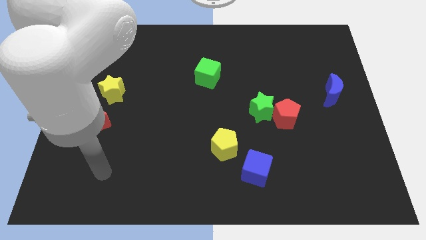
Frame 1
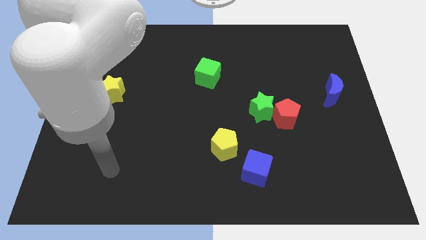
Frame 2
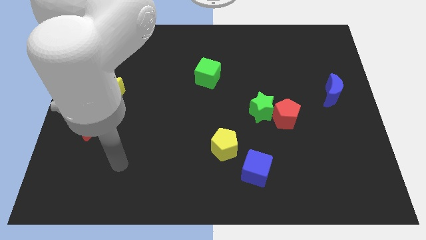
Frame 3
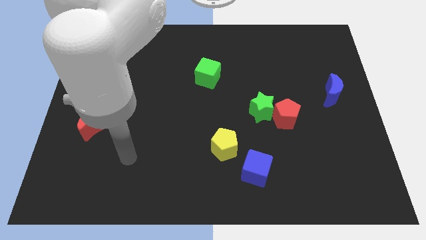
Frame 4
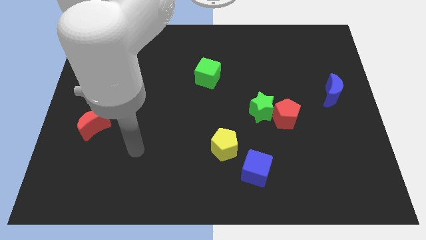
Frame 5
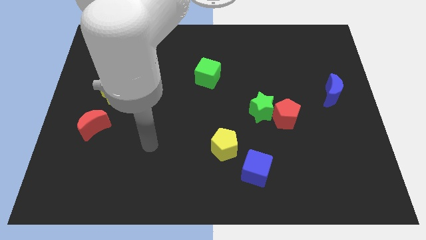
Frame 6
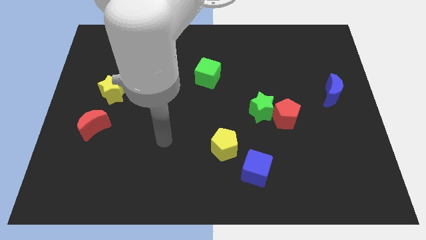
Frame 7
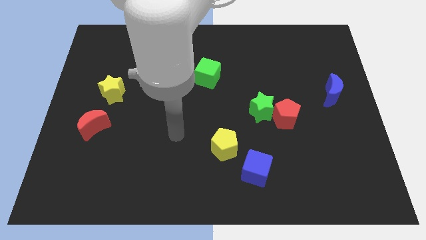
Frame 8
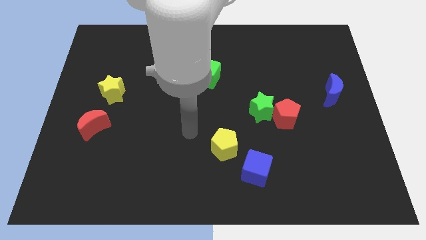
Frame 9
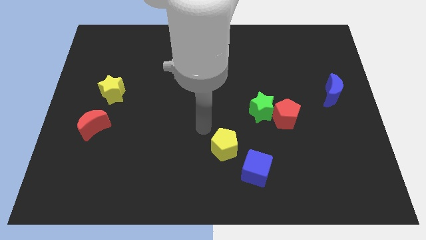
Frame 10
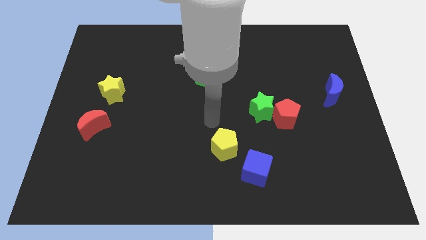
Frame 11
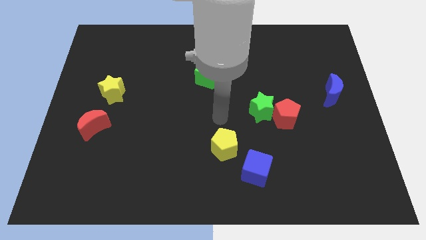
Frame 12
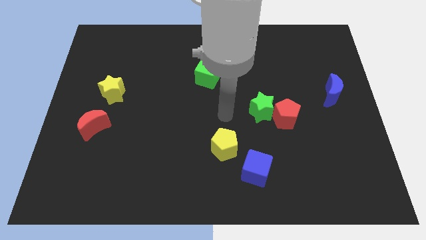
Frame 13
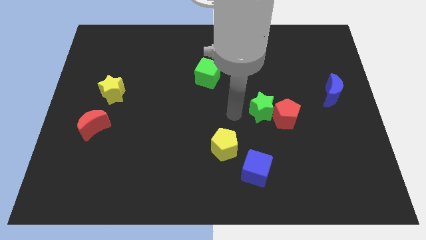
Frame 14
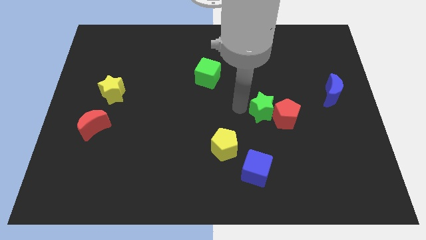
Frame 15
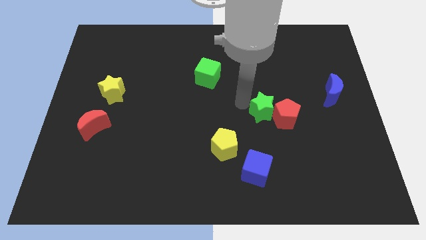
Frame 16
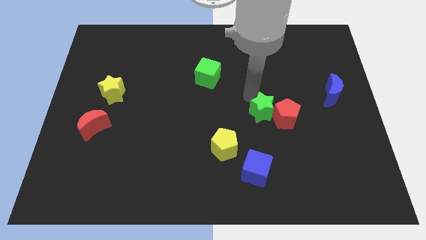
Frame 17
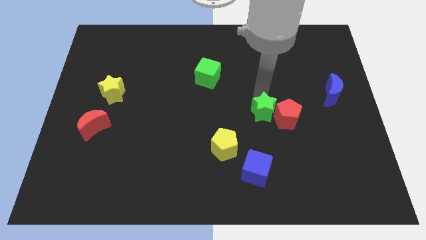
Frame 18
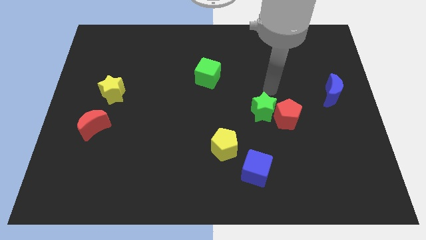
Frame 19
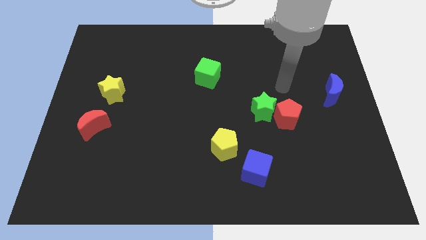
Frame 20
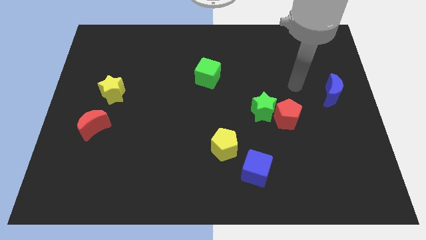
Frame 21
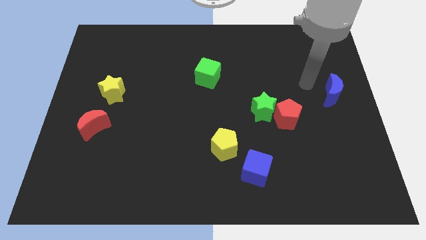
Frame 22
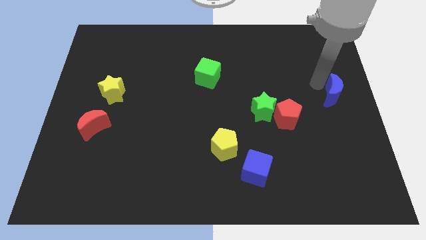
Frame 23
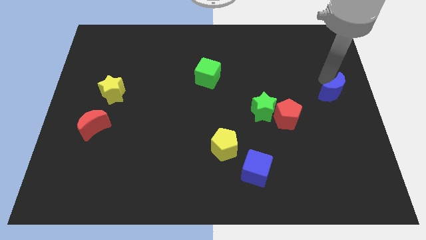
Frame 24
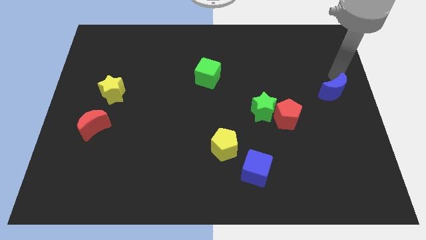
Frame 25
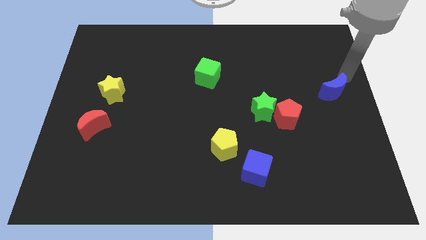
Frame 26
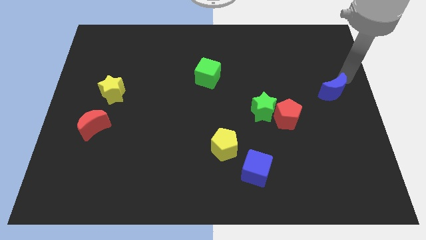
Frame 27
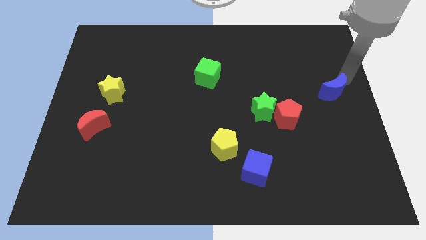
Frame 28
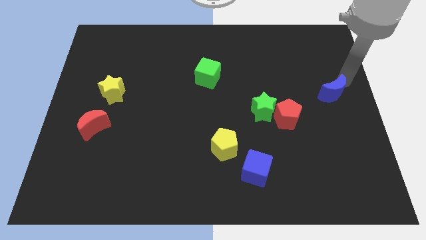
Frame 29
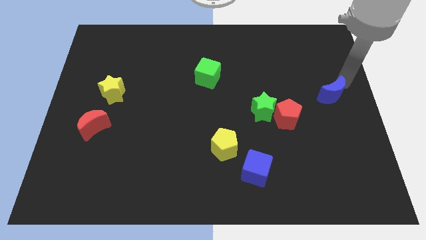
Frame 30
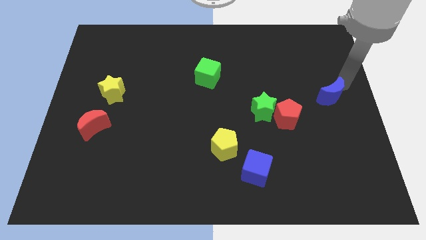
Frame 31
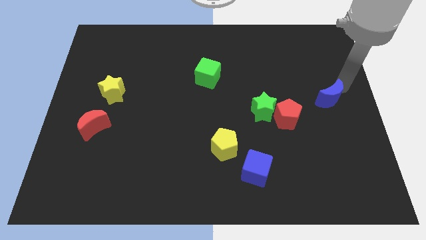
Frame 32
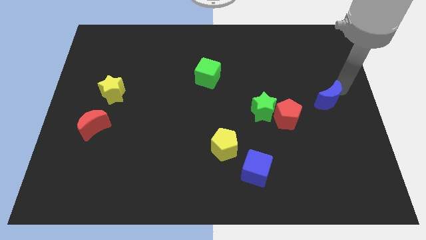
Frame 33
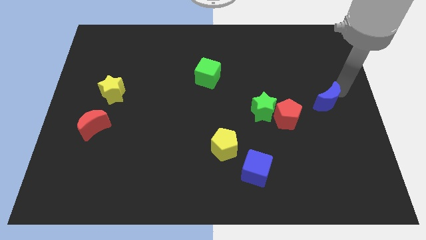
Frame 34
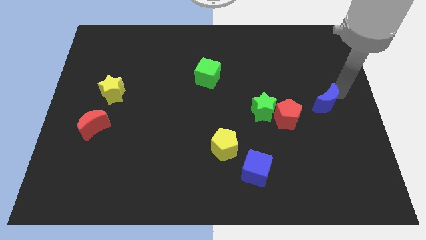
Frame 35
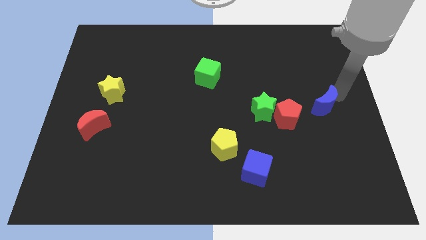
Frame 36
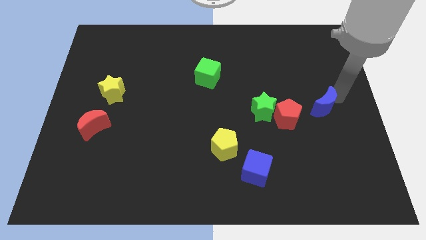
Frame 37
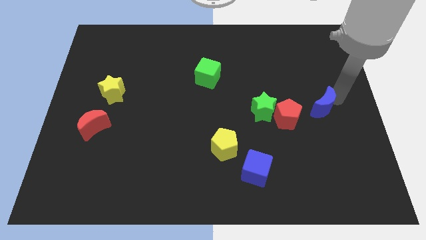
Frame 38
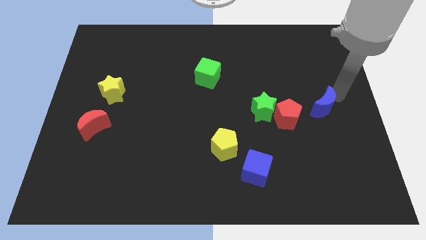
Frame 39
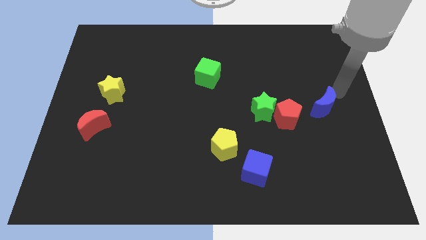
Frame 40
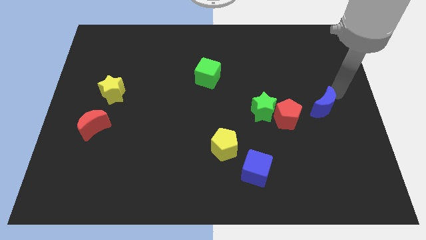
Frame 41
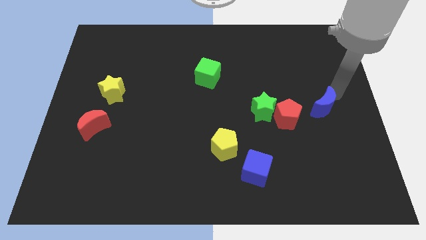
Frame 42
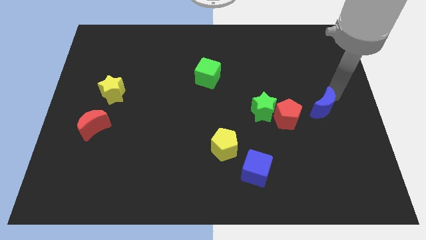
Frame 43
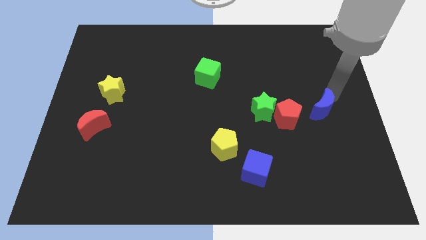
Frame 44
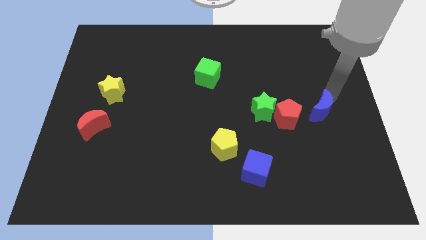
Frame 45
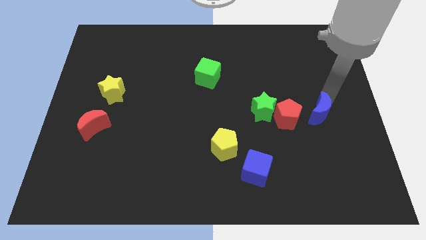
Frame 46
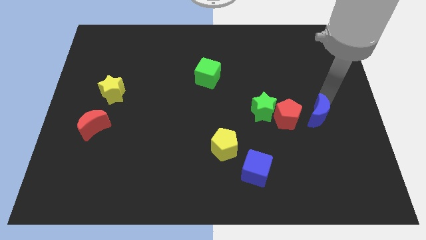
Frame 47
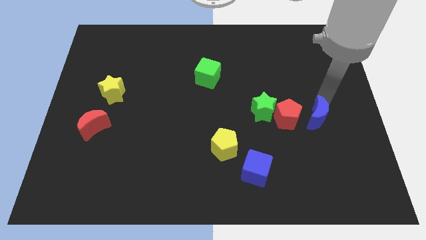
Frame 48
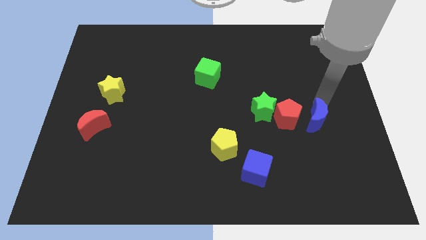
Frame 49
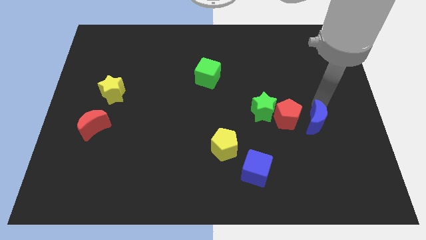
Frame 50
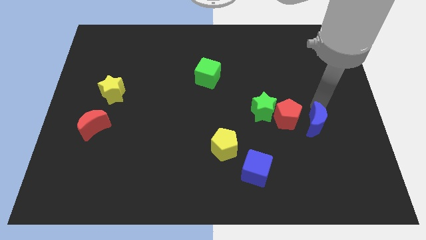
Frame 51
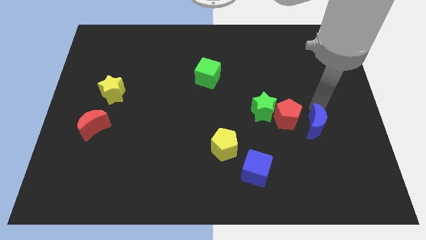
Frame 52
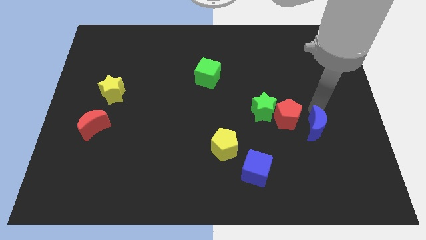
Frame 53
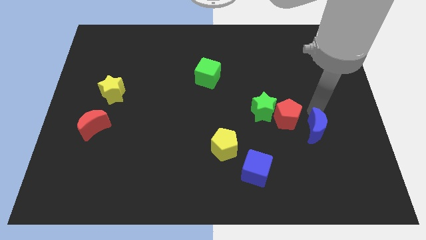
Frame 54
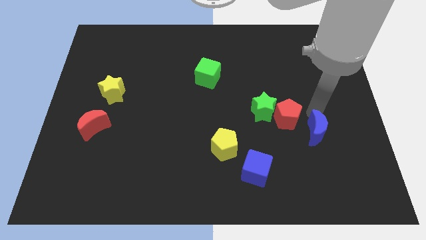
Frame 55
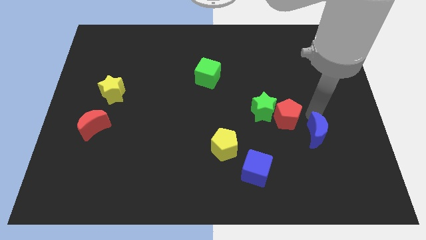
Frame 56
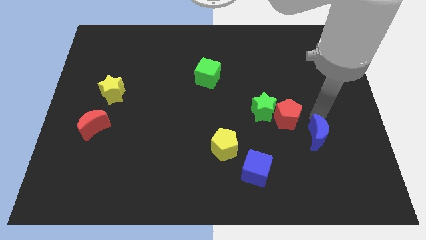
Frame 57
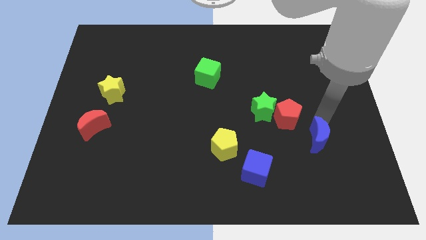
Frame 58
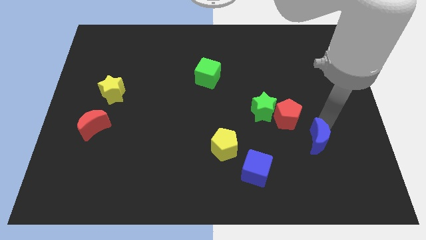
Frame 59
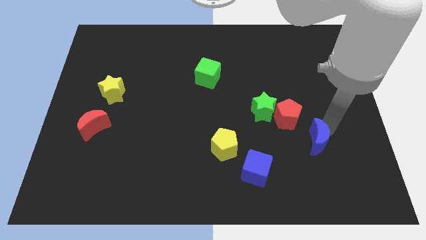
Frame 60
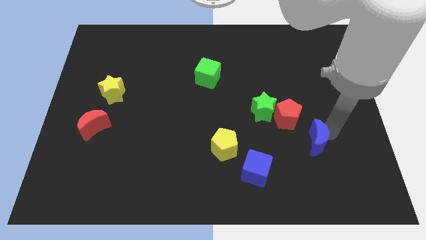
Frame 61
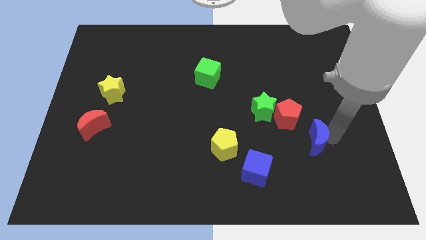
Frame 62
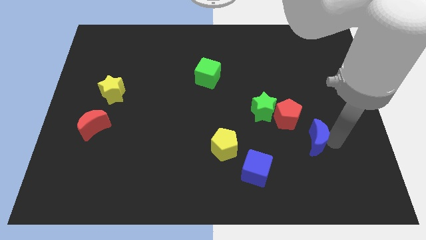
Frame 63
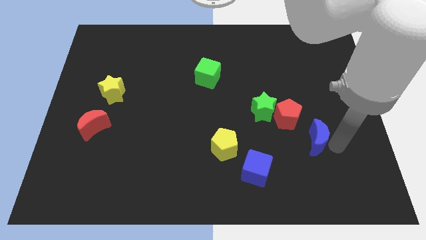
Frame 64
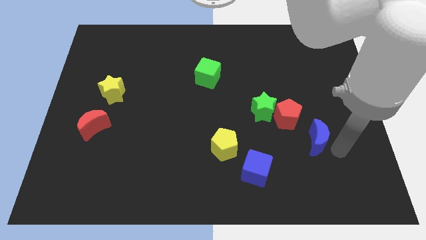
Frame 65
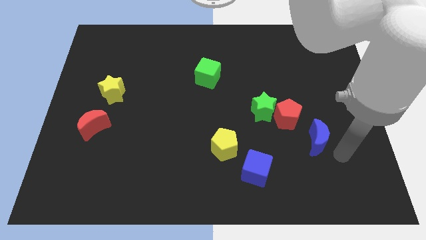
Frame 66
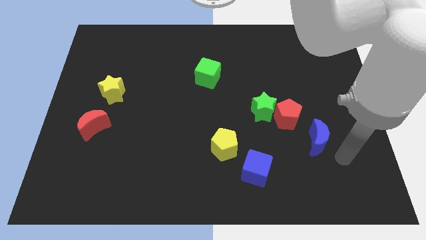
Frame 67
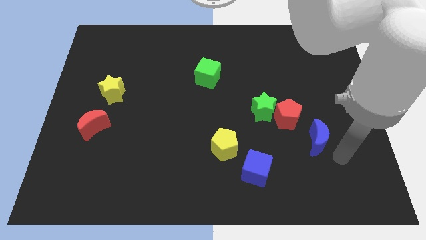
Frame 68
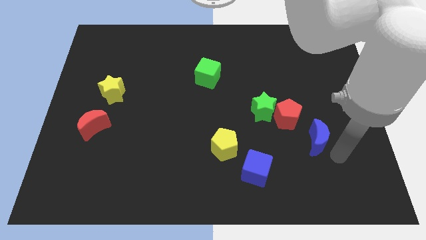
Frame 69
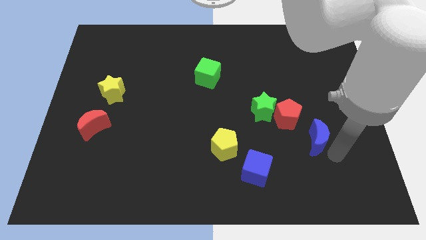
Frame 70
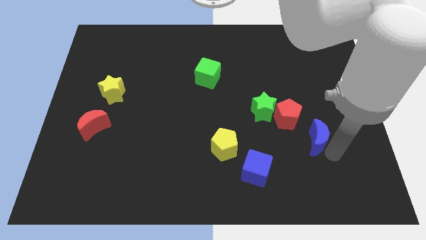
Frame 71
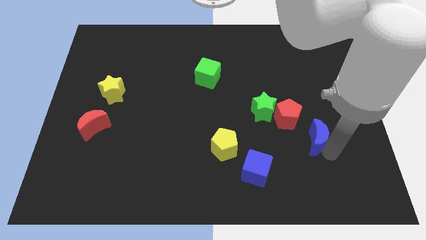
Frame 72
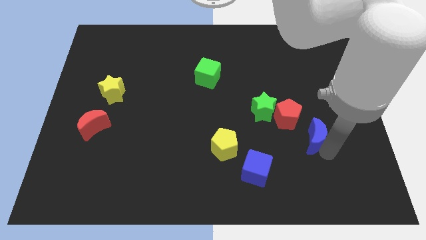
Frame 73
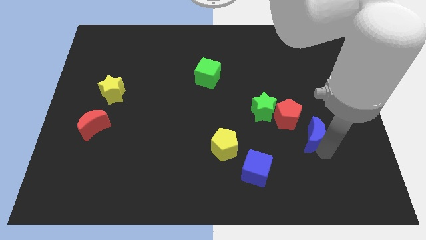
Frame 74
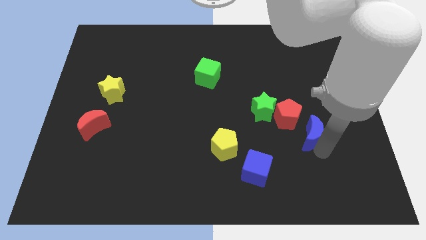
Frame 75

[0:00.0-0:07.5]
push the blue moon to the bottom right of the green star

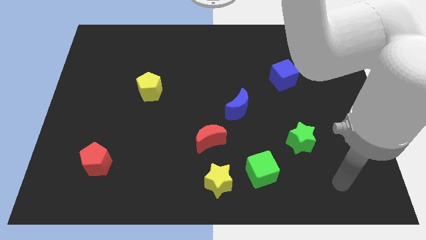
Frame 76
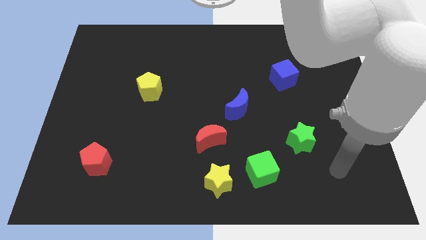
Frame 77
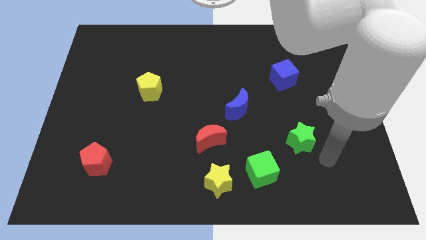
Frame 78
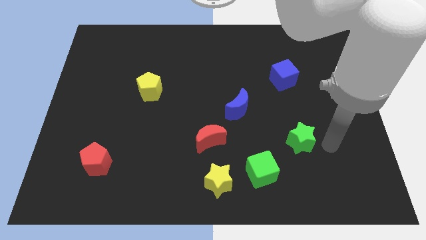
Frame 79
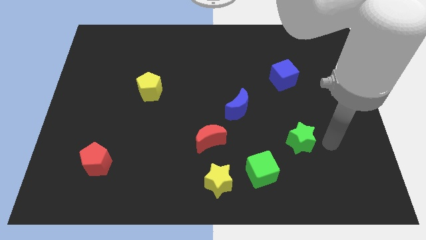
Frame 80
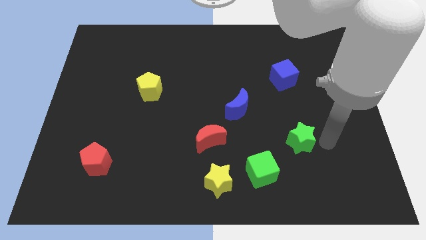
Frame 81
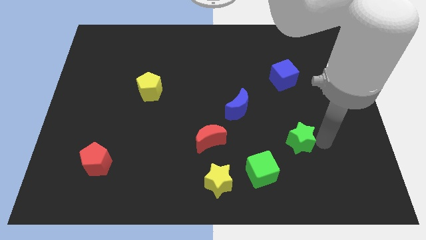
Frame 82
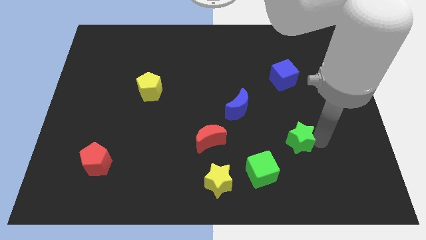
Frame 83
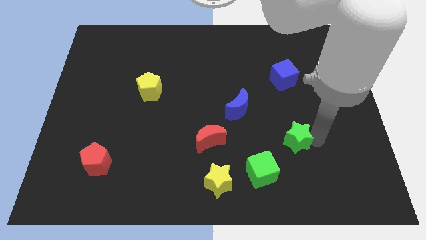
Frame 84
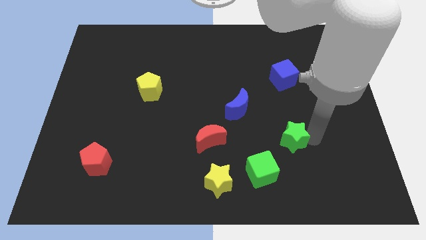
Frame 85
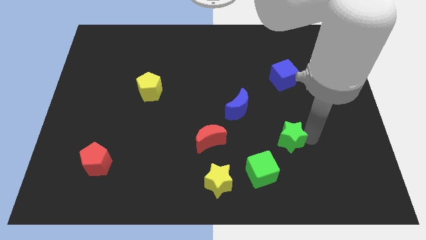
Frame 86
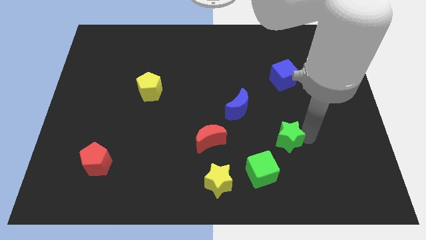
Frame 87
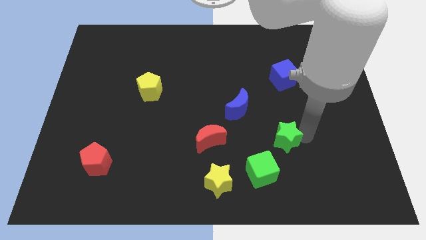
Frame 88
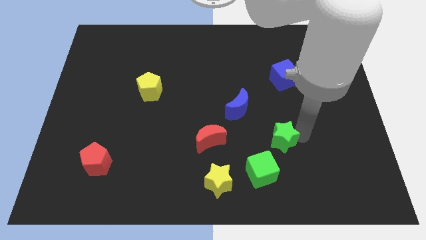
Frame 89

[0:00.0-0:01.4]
move the green star to the right side of the red moon
